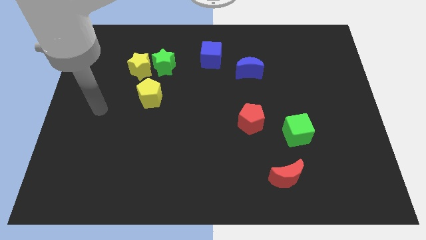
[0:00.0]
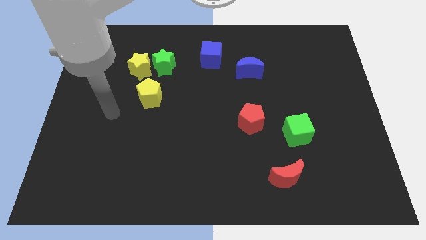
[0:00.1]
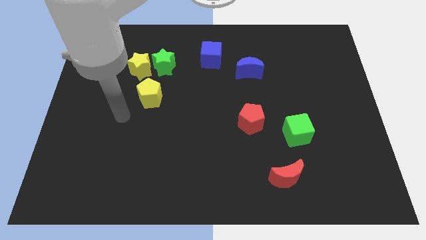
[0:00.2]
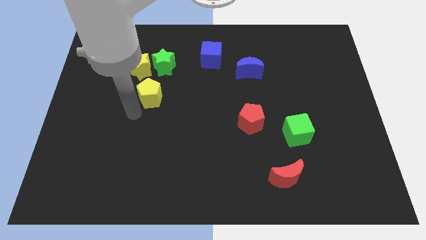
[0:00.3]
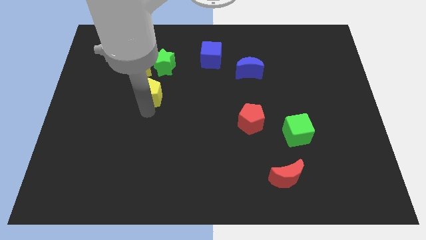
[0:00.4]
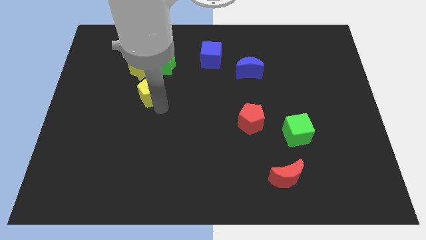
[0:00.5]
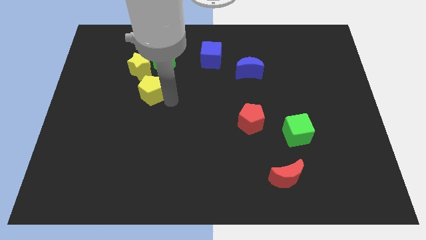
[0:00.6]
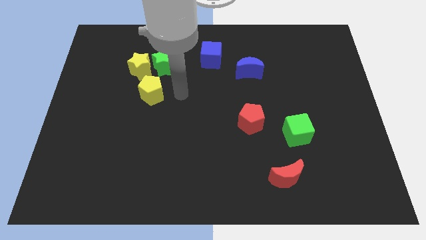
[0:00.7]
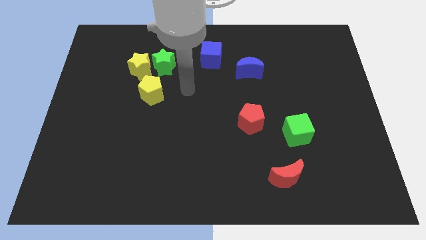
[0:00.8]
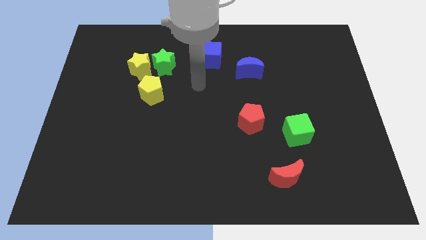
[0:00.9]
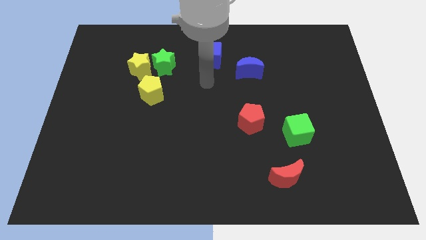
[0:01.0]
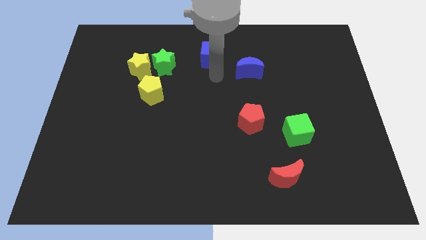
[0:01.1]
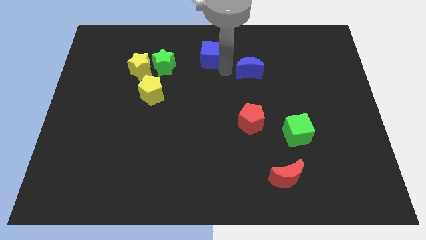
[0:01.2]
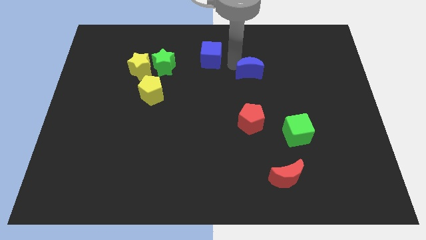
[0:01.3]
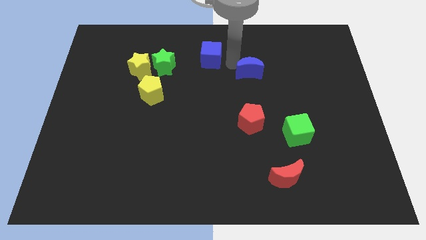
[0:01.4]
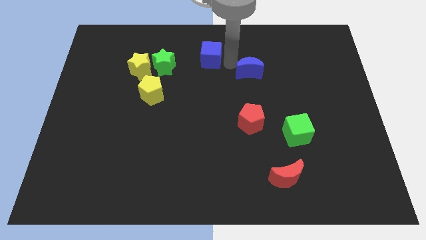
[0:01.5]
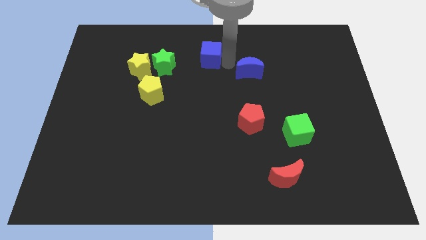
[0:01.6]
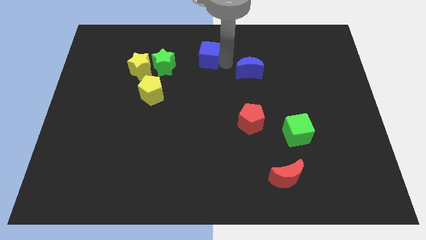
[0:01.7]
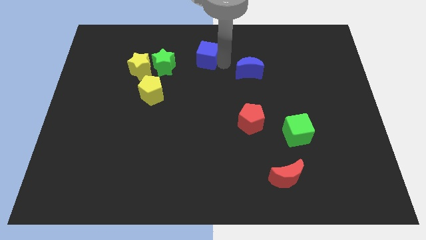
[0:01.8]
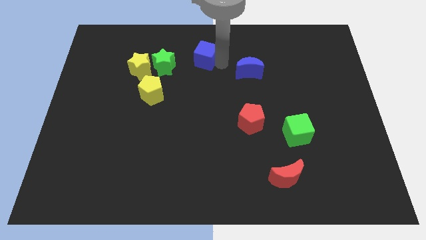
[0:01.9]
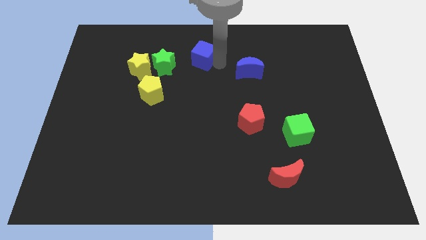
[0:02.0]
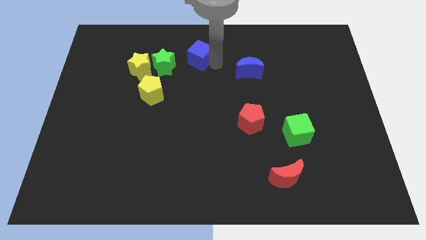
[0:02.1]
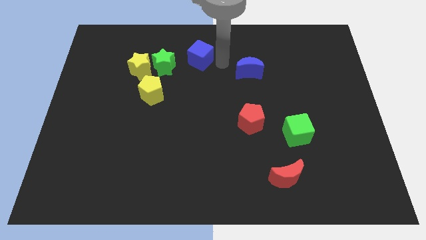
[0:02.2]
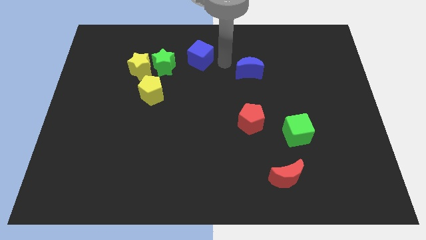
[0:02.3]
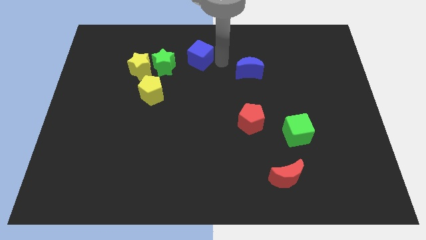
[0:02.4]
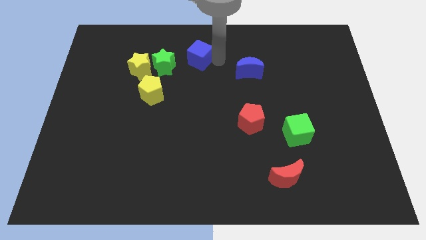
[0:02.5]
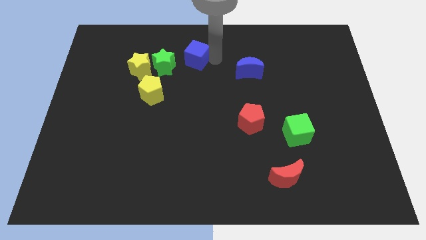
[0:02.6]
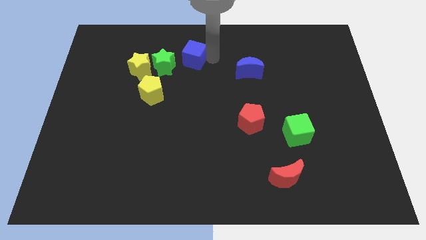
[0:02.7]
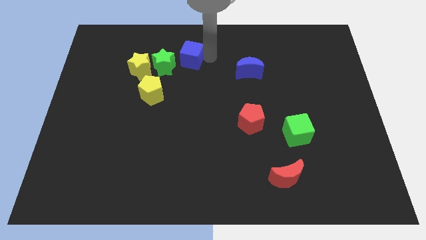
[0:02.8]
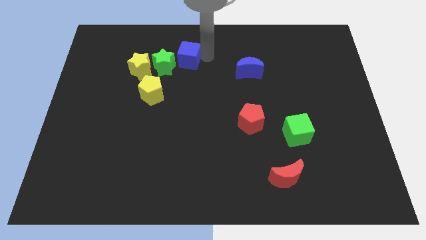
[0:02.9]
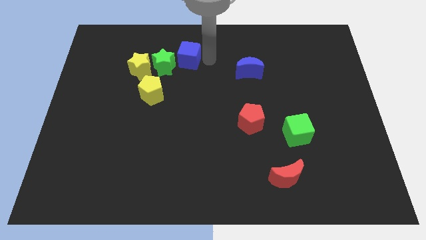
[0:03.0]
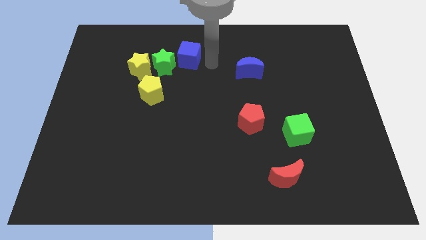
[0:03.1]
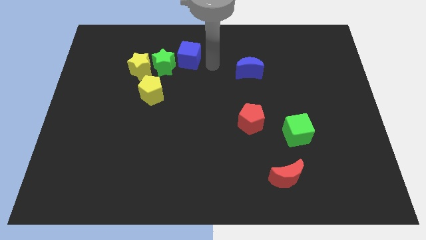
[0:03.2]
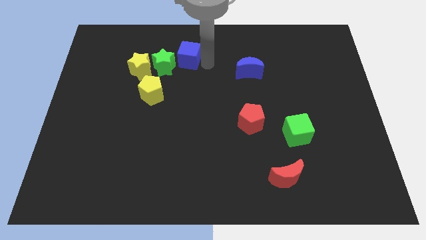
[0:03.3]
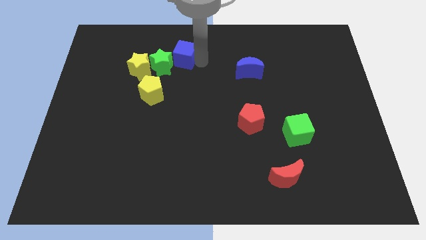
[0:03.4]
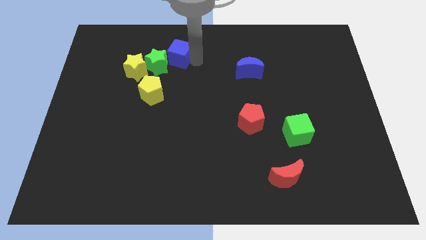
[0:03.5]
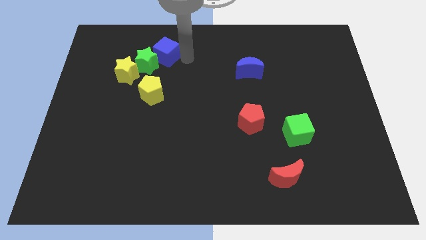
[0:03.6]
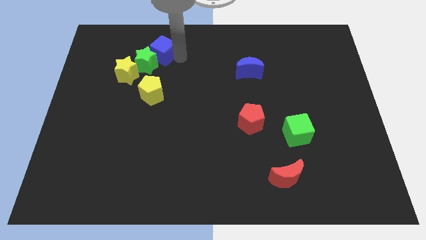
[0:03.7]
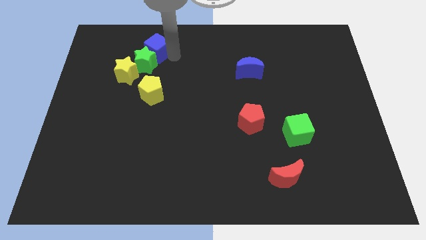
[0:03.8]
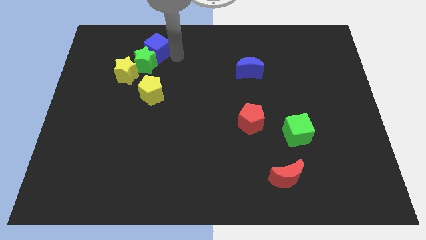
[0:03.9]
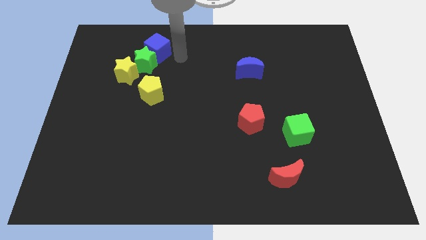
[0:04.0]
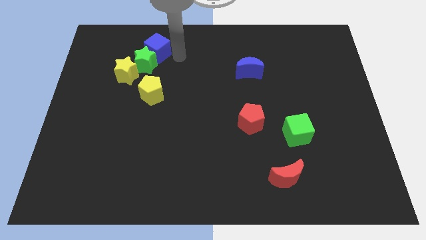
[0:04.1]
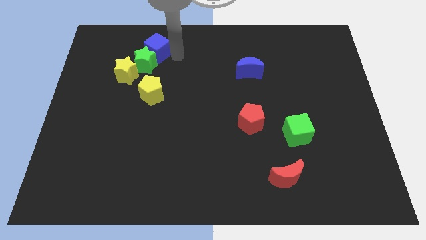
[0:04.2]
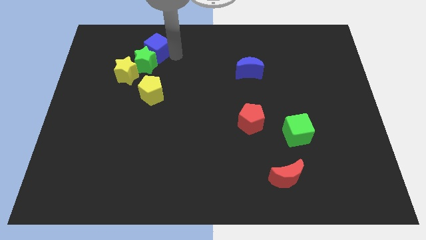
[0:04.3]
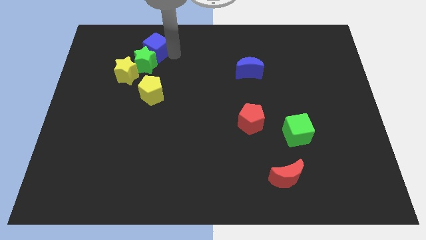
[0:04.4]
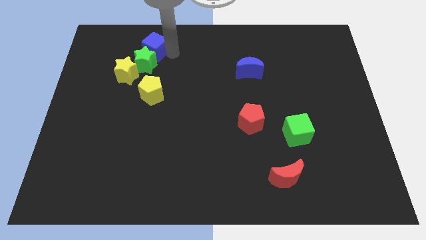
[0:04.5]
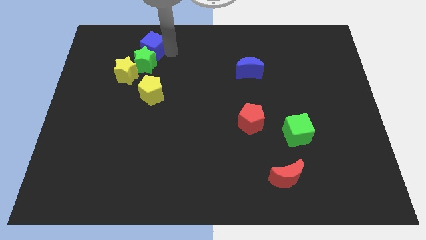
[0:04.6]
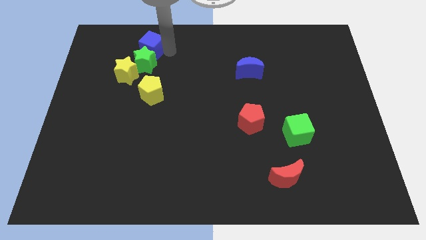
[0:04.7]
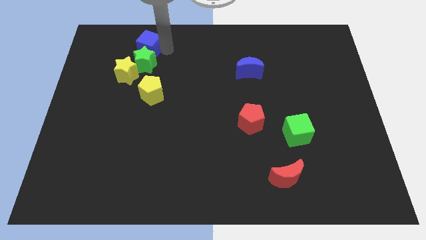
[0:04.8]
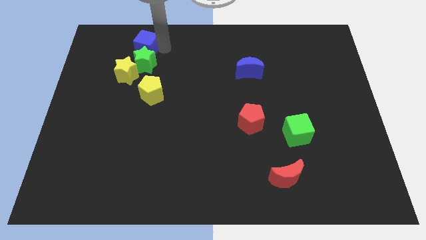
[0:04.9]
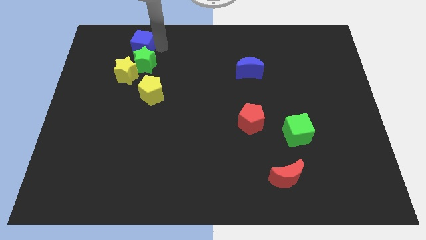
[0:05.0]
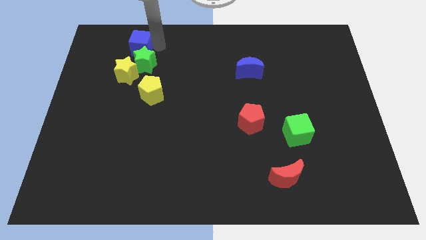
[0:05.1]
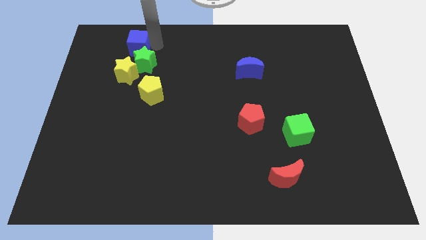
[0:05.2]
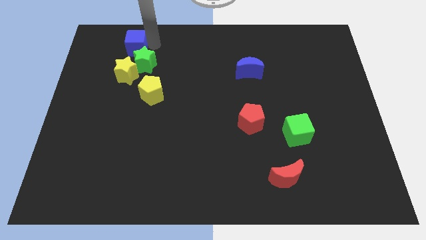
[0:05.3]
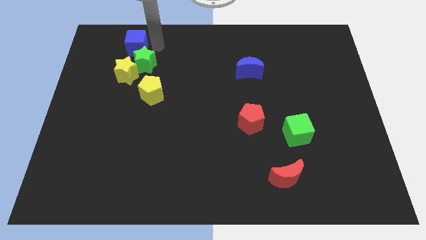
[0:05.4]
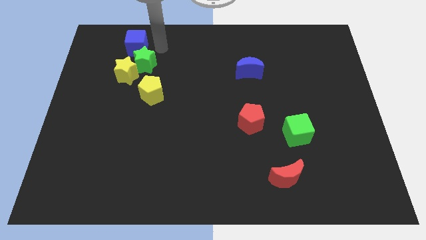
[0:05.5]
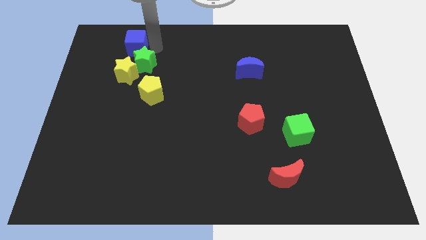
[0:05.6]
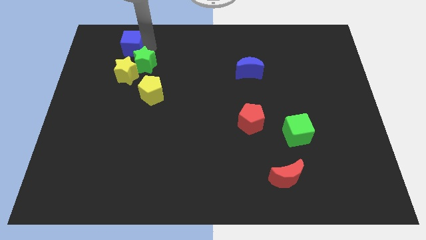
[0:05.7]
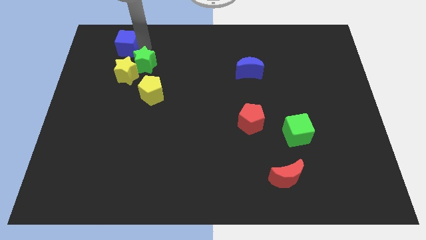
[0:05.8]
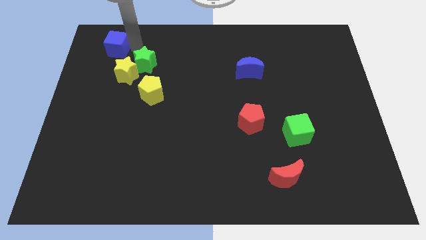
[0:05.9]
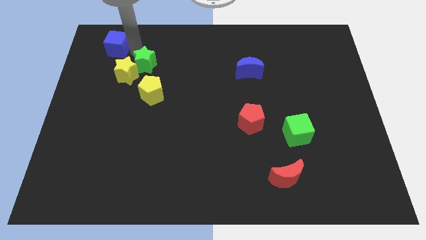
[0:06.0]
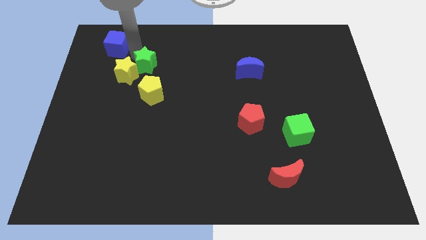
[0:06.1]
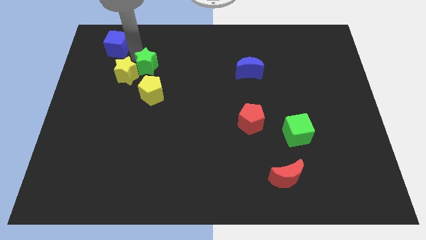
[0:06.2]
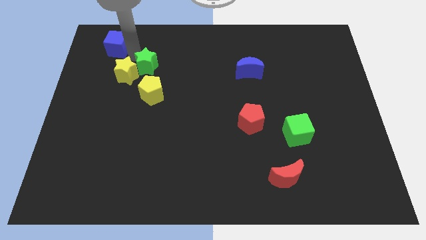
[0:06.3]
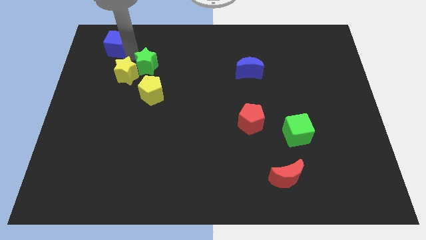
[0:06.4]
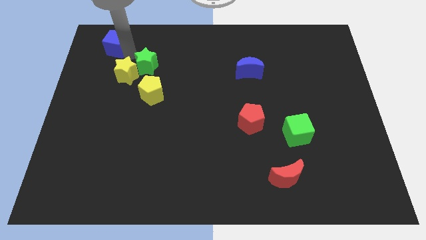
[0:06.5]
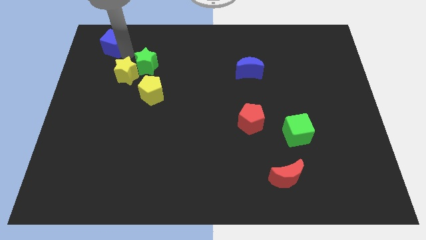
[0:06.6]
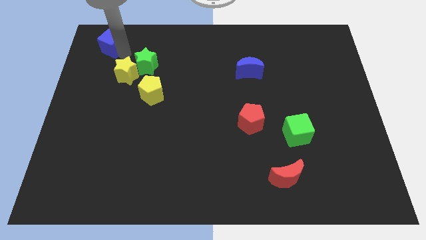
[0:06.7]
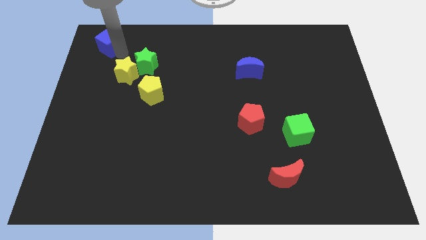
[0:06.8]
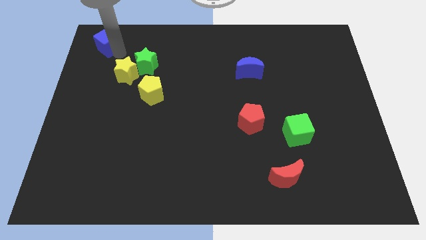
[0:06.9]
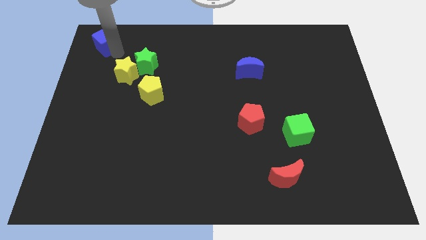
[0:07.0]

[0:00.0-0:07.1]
slide the blue cube to the top left corner
